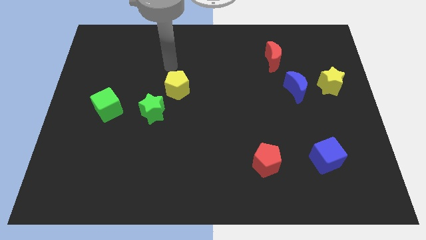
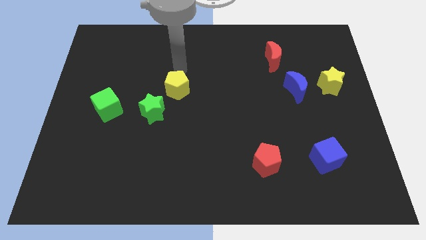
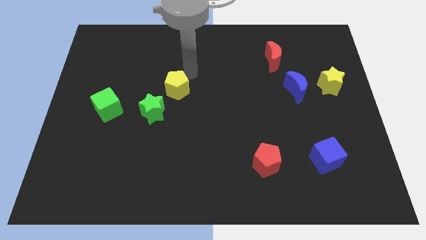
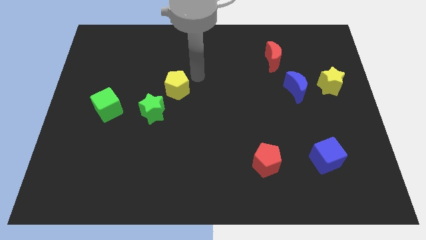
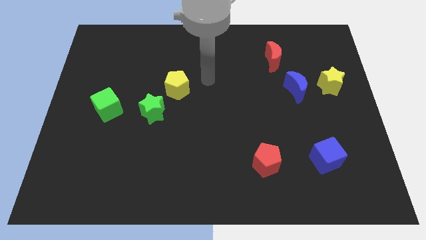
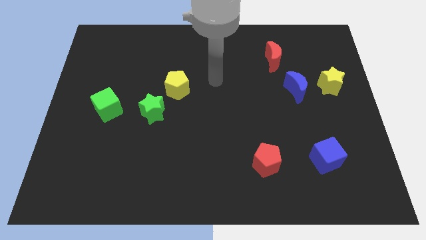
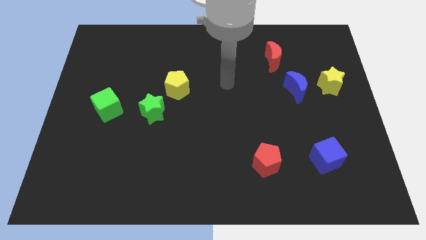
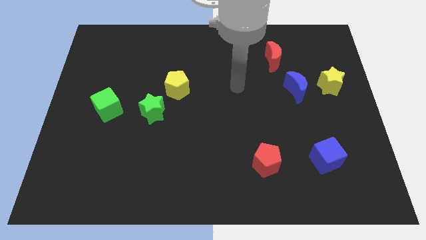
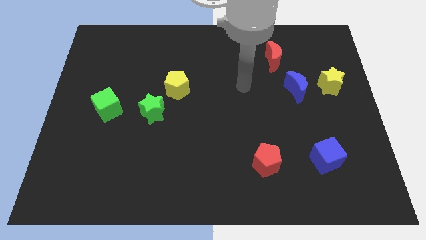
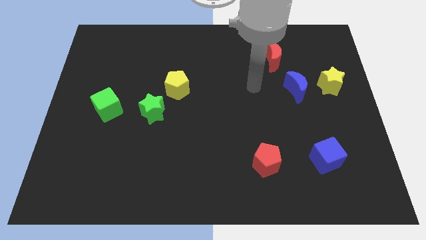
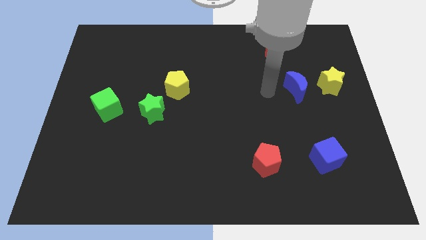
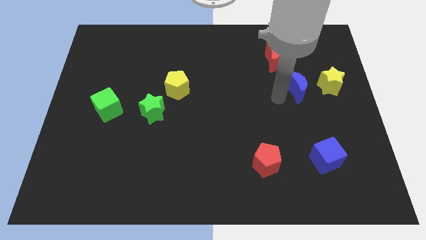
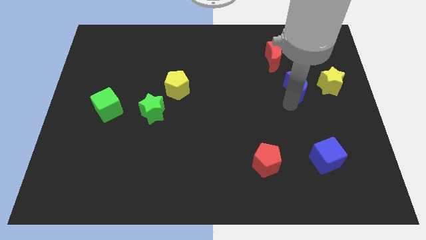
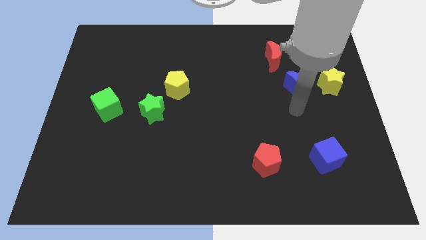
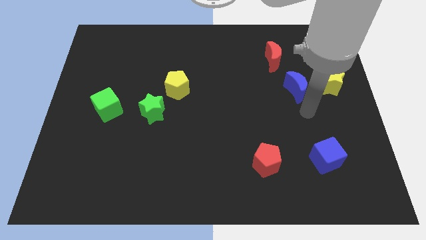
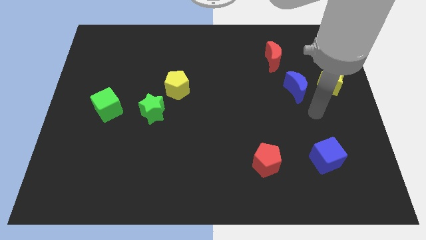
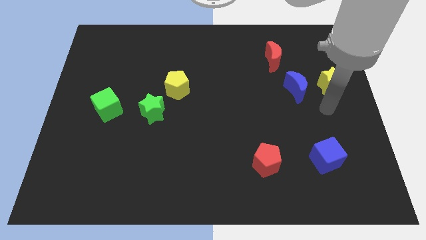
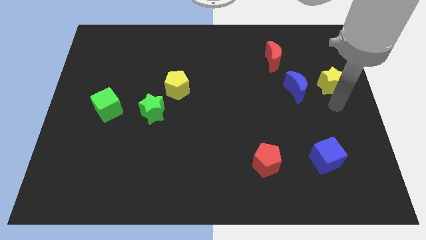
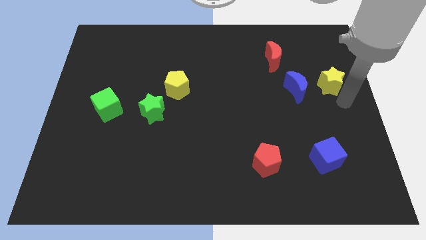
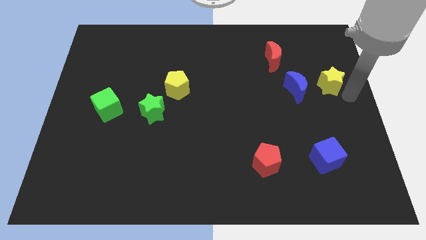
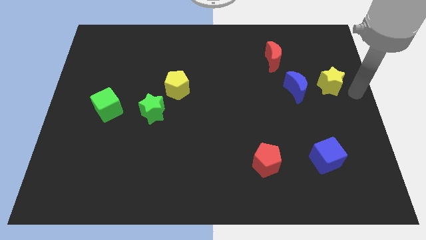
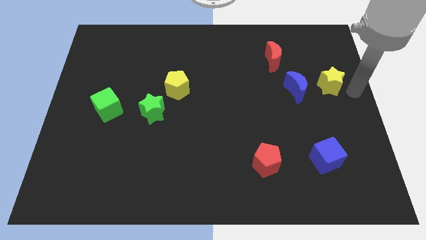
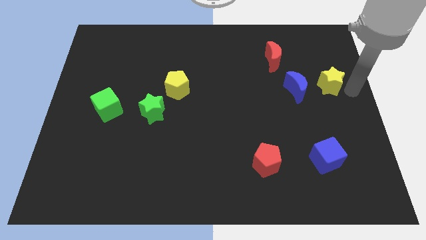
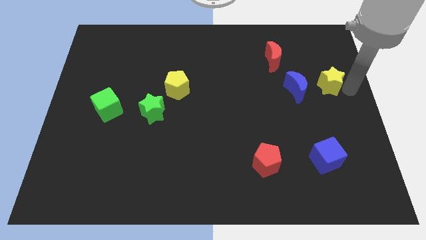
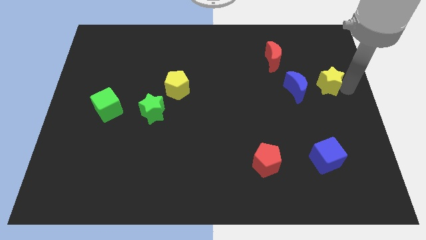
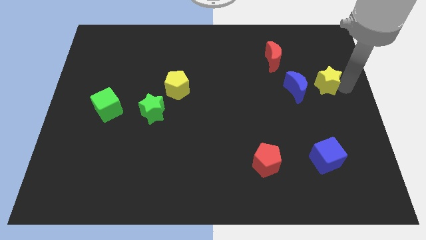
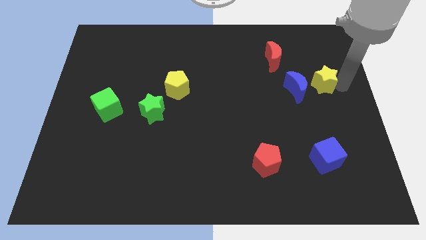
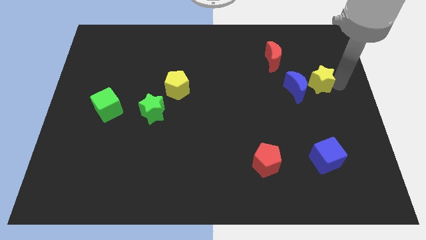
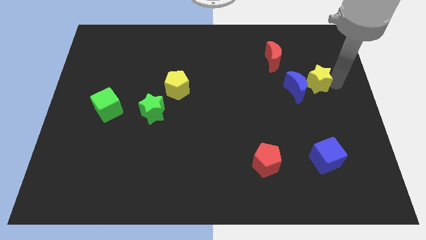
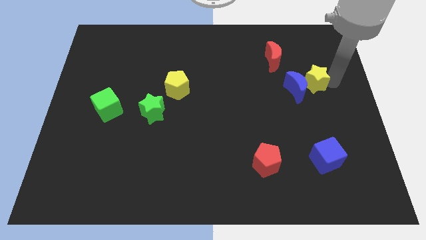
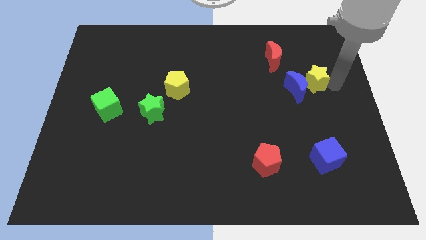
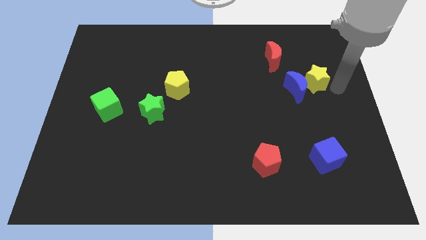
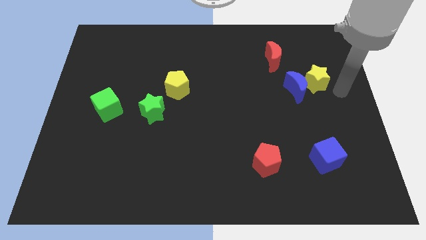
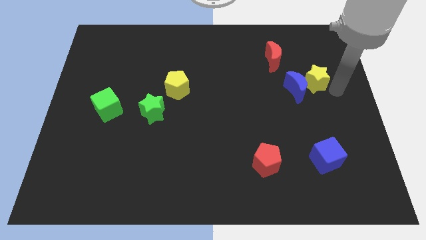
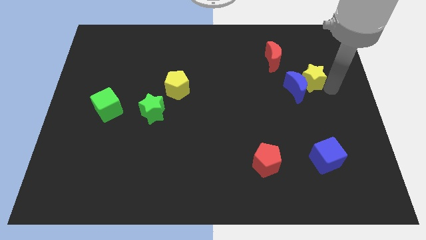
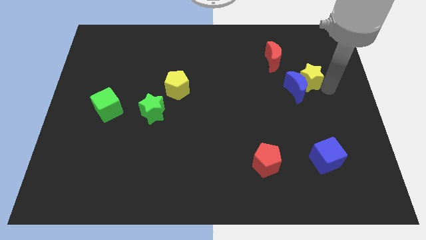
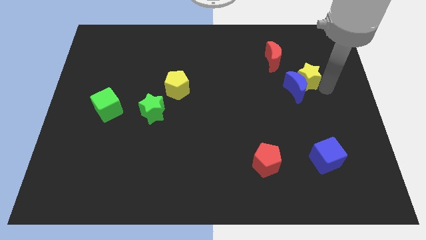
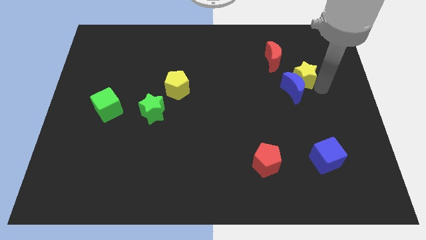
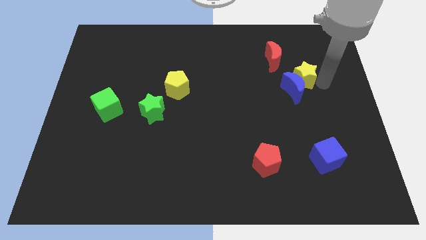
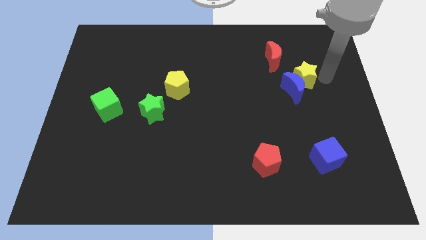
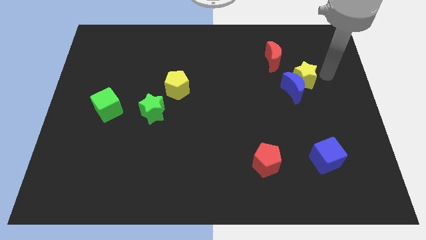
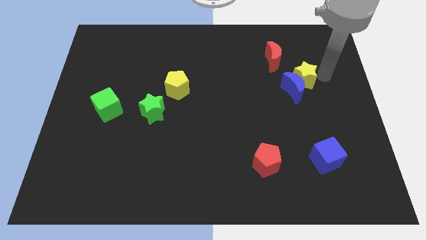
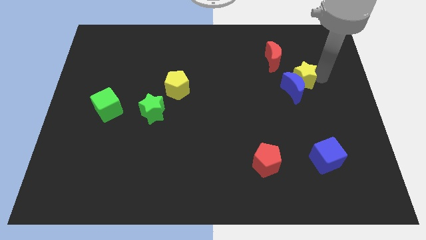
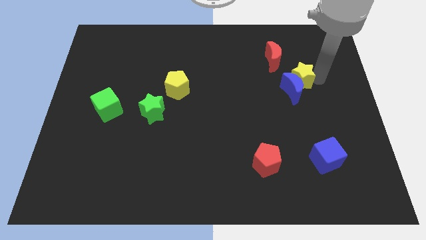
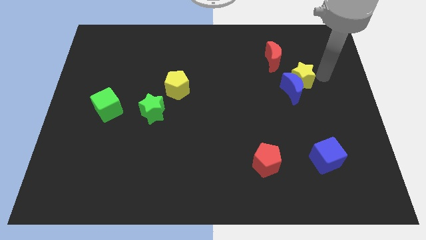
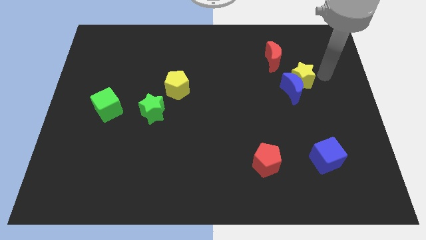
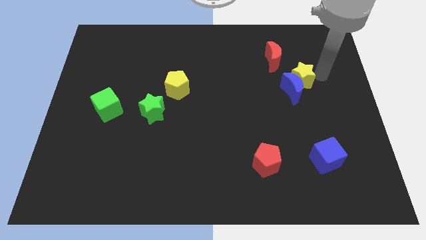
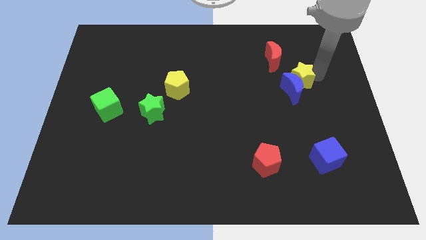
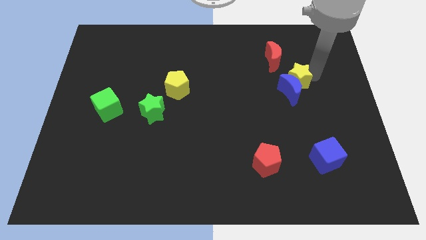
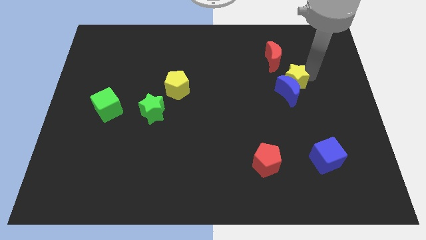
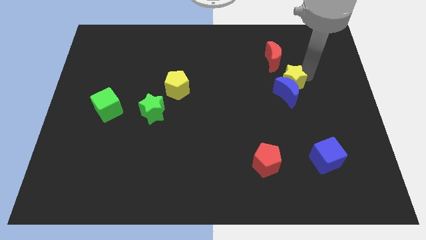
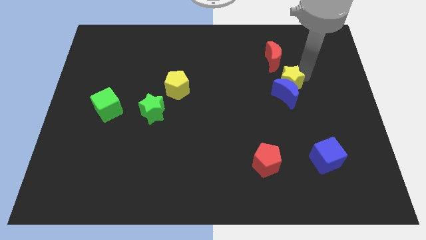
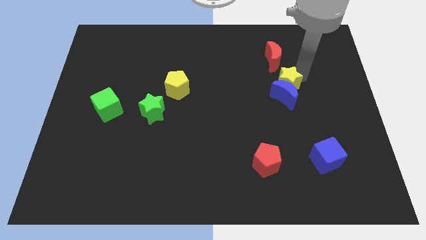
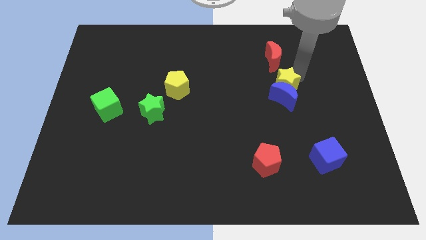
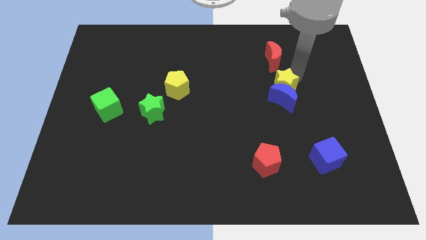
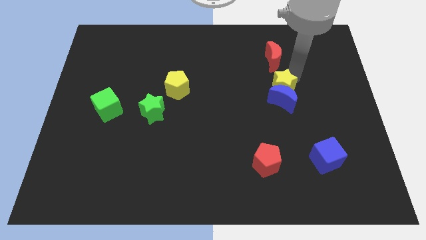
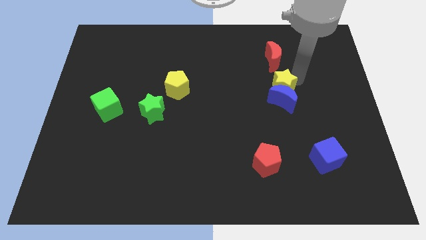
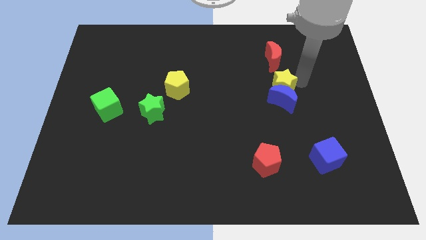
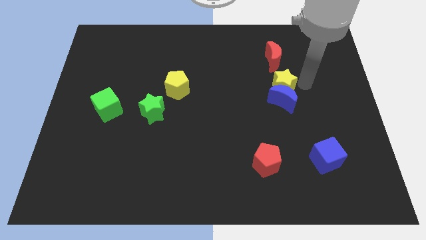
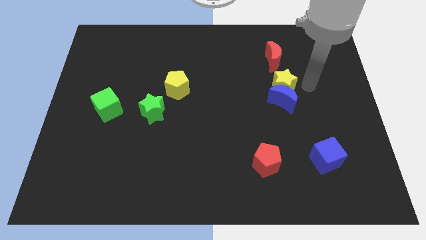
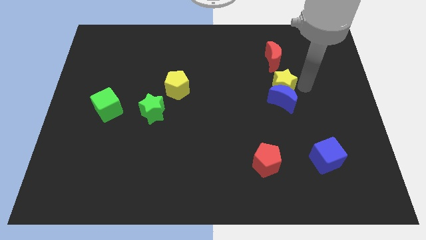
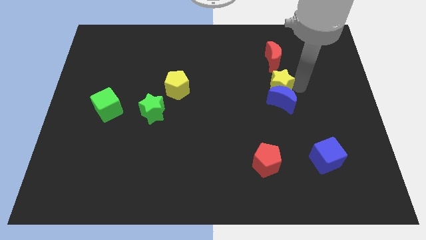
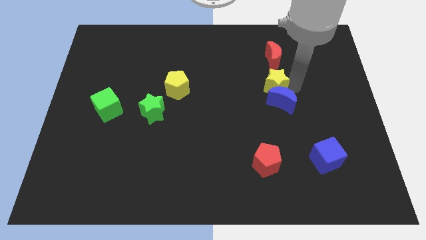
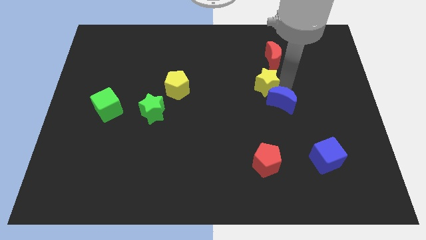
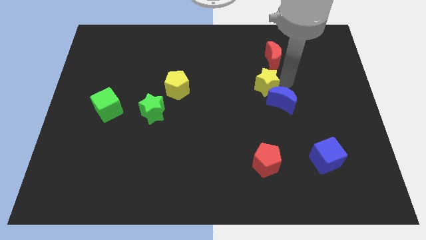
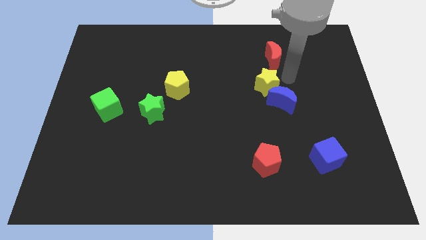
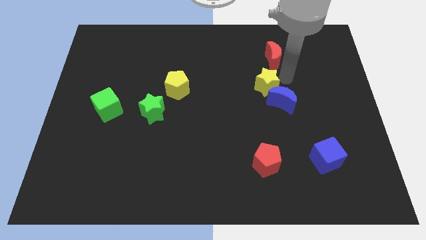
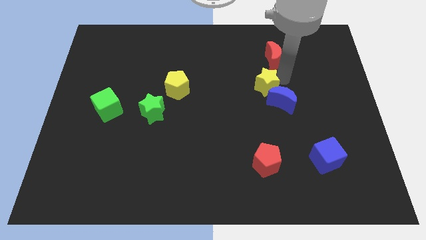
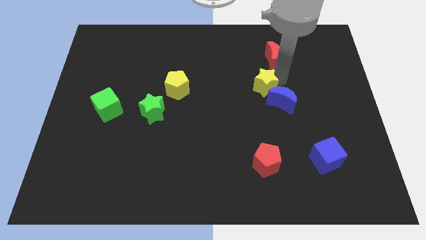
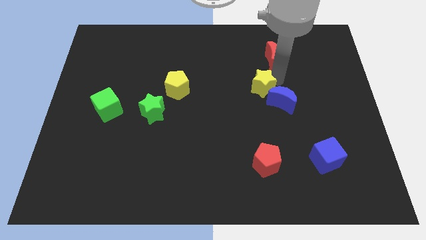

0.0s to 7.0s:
slide the yellow star to the middle
